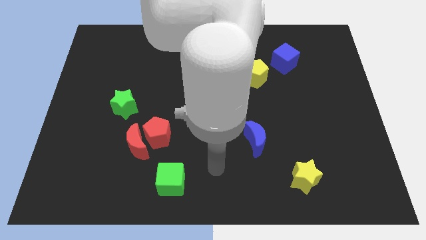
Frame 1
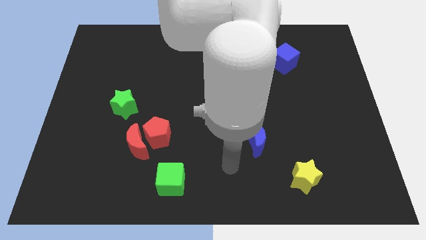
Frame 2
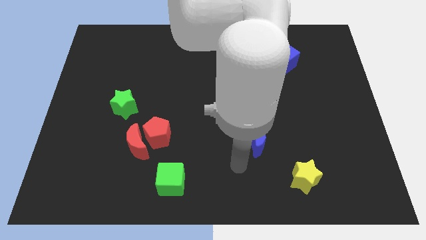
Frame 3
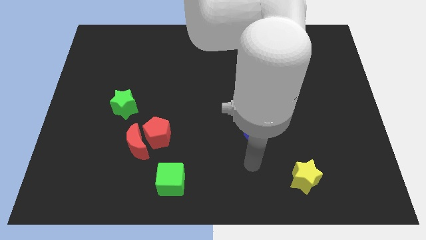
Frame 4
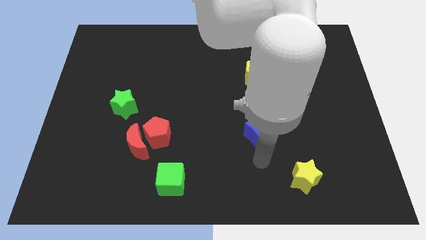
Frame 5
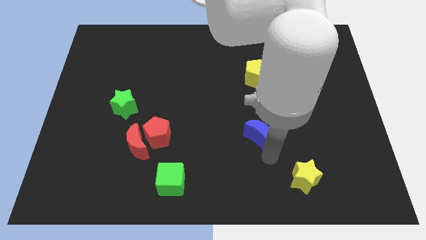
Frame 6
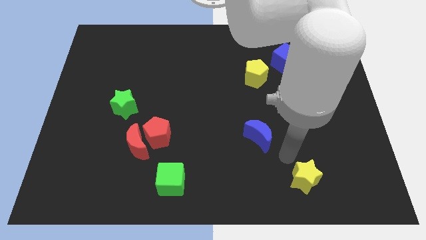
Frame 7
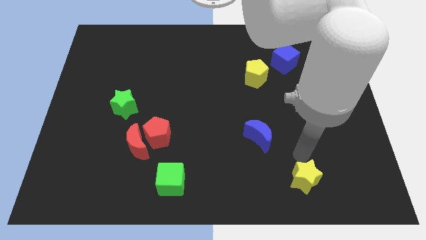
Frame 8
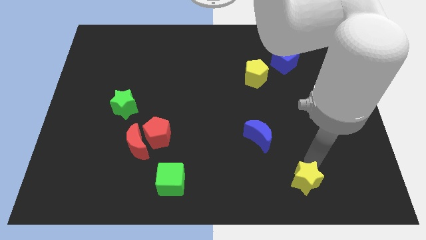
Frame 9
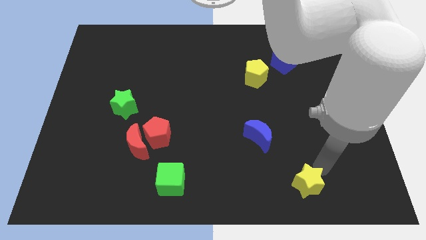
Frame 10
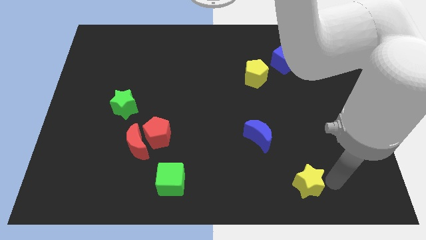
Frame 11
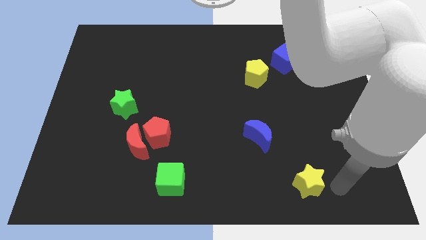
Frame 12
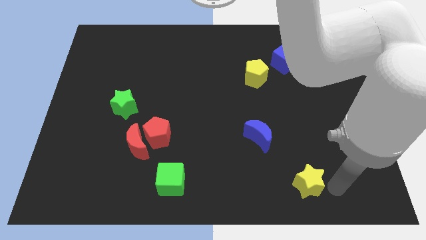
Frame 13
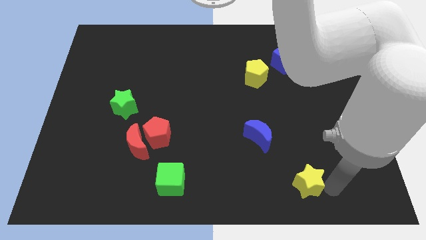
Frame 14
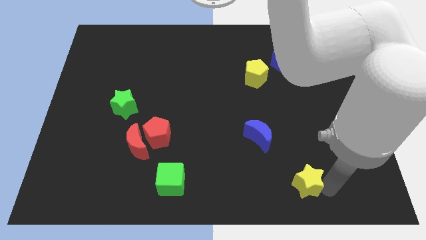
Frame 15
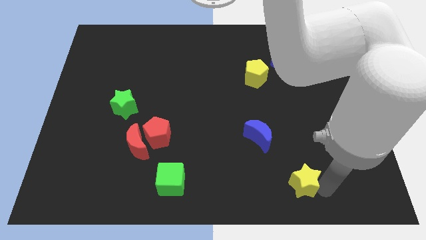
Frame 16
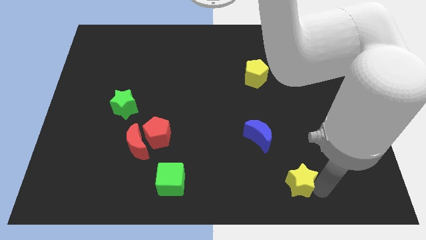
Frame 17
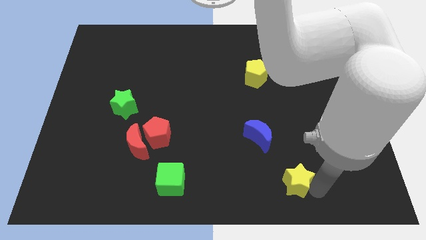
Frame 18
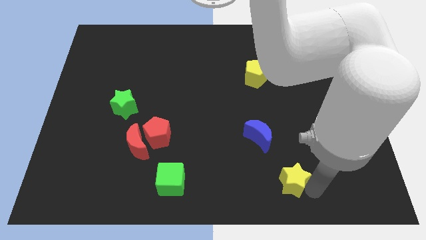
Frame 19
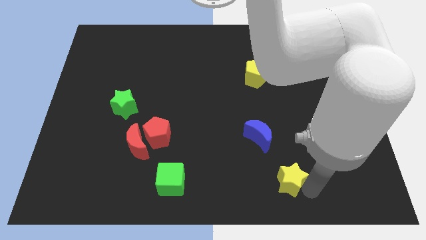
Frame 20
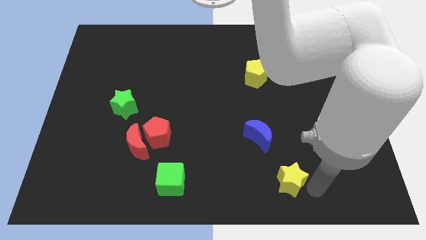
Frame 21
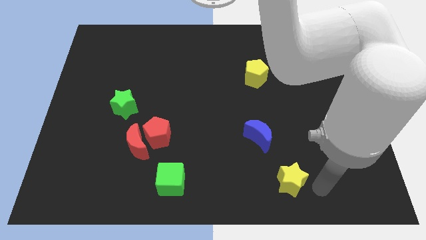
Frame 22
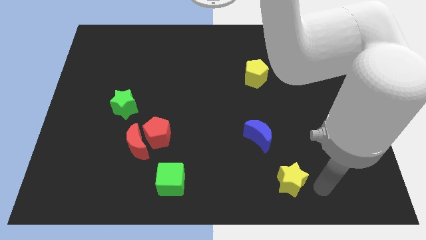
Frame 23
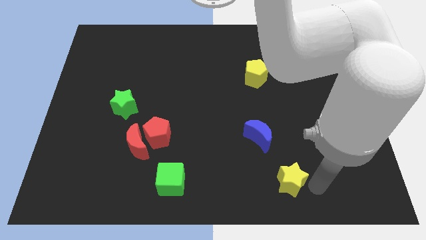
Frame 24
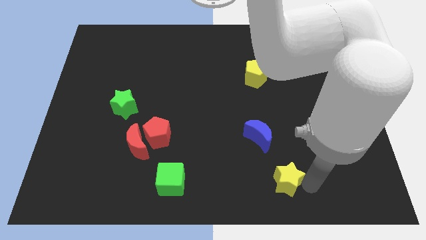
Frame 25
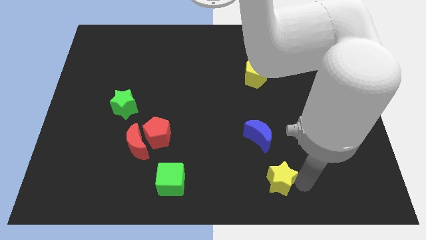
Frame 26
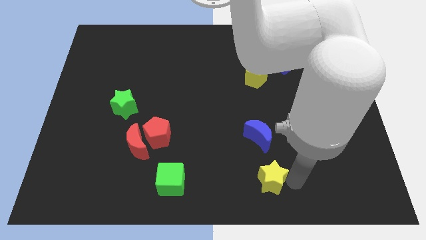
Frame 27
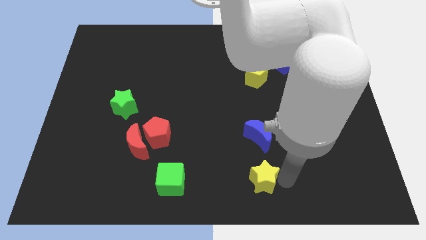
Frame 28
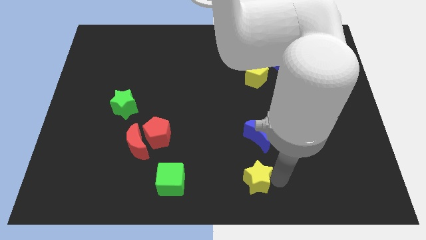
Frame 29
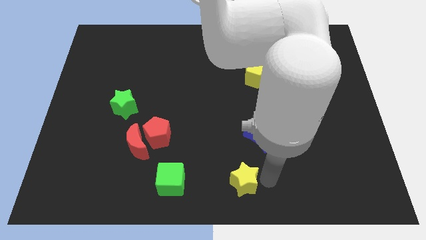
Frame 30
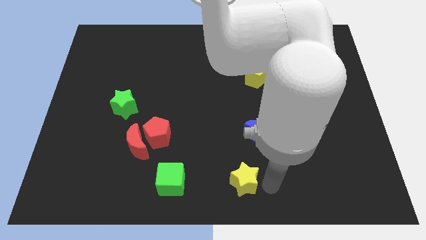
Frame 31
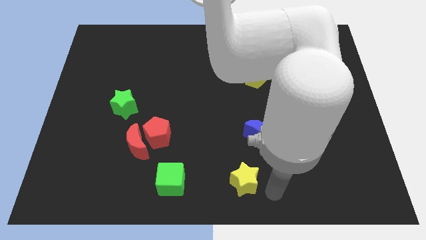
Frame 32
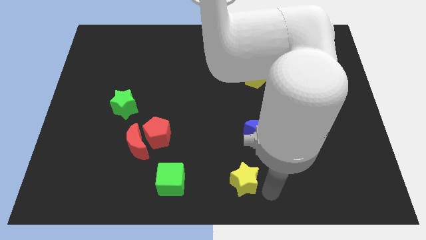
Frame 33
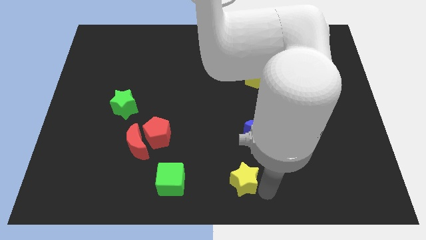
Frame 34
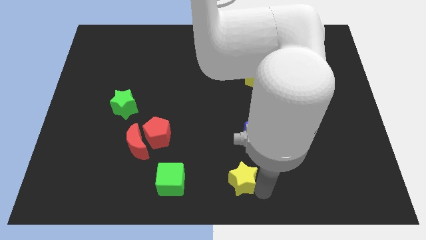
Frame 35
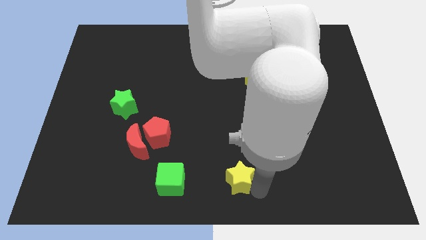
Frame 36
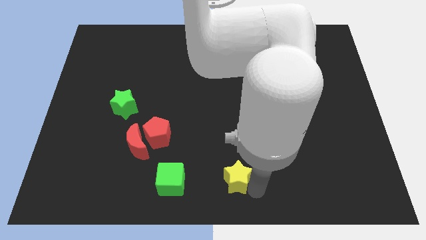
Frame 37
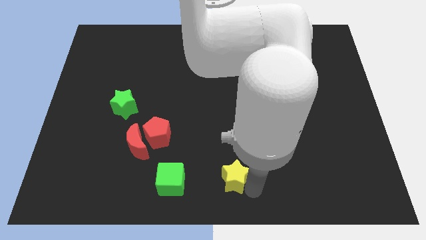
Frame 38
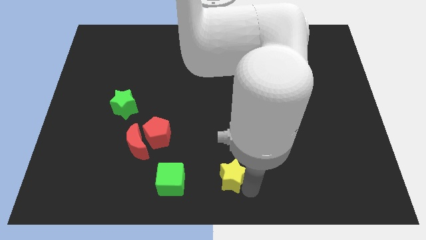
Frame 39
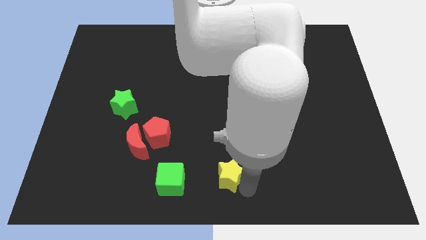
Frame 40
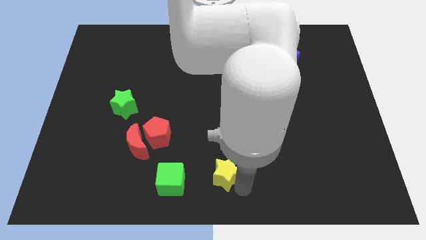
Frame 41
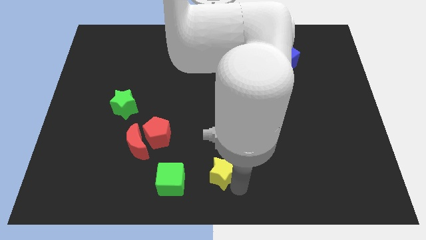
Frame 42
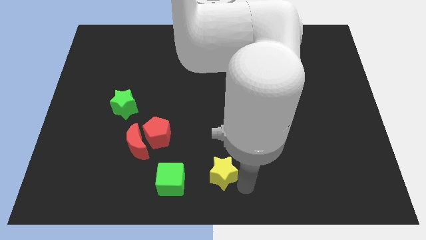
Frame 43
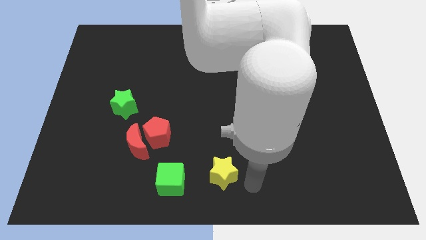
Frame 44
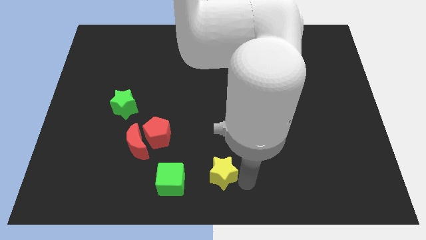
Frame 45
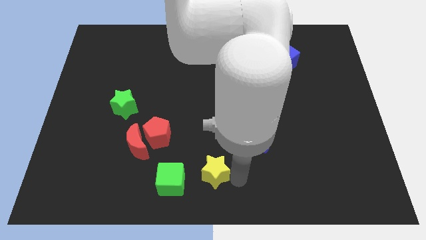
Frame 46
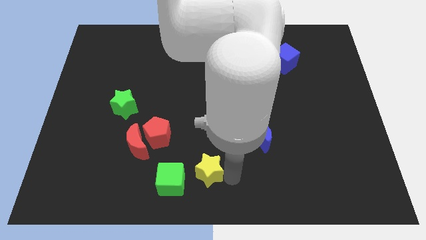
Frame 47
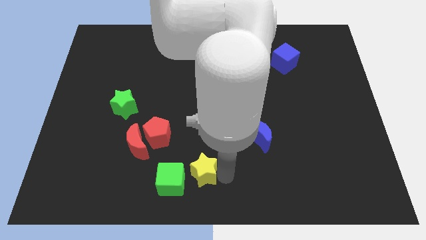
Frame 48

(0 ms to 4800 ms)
move the yellow star to the left

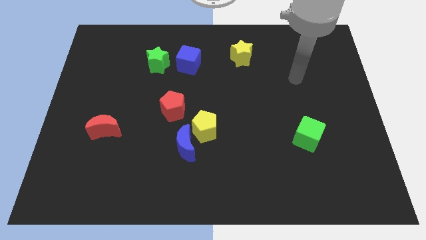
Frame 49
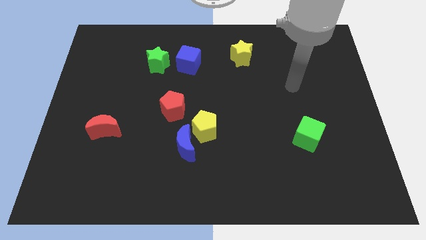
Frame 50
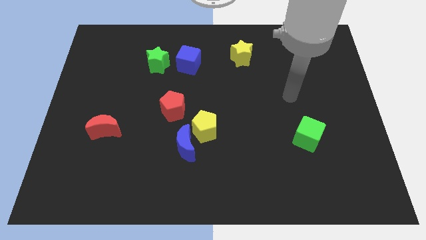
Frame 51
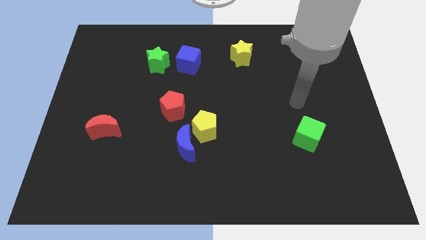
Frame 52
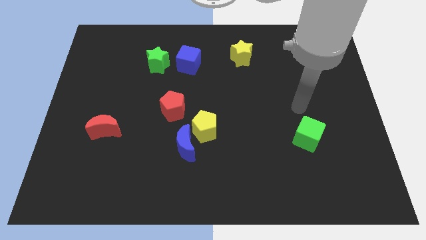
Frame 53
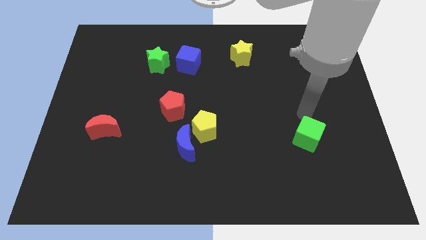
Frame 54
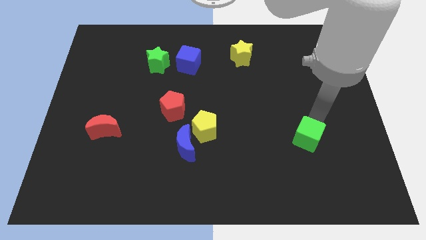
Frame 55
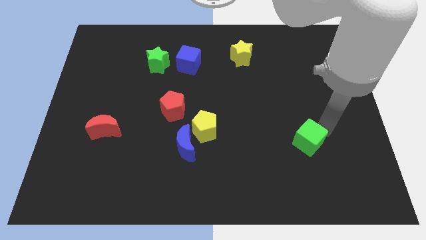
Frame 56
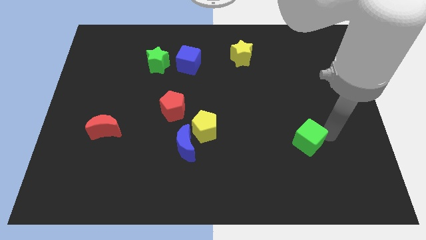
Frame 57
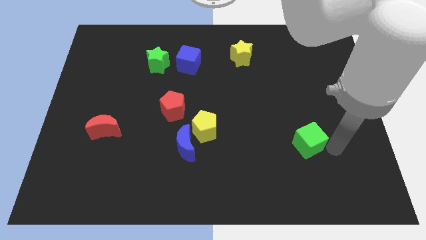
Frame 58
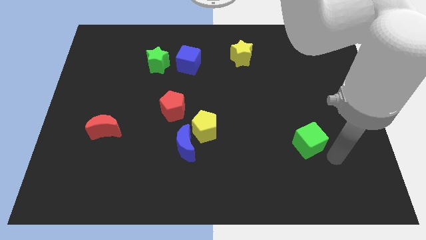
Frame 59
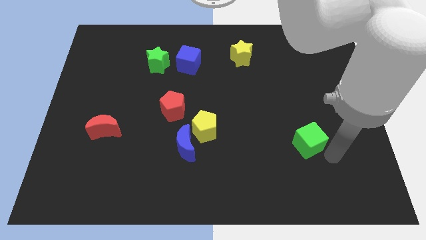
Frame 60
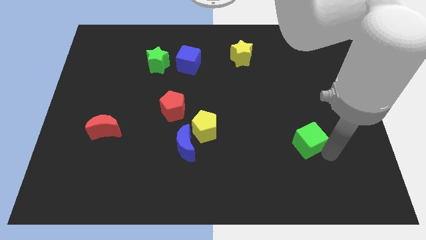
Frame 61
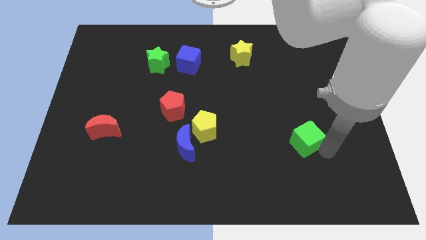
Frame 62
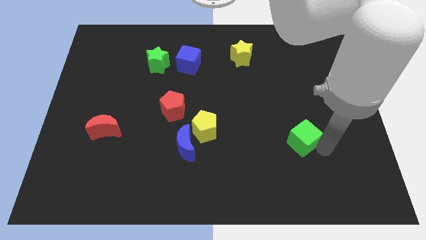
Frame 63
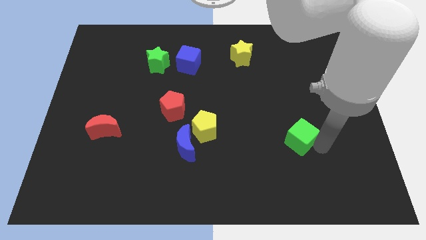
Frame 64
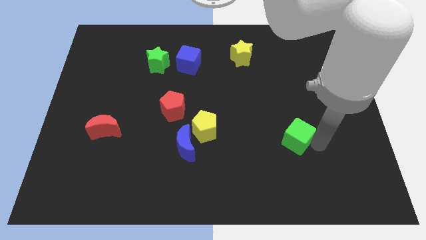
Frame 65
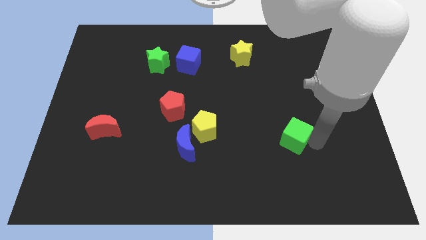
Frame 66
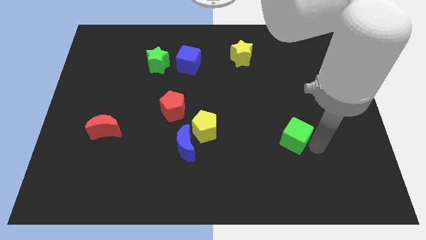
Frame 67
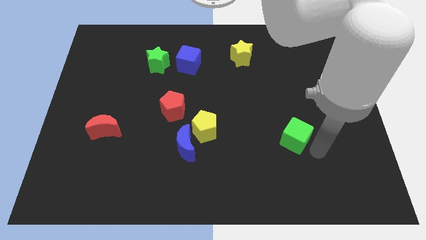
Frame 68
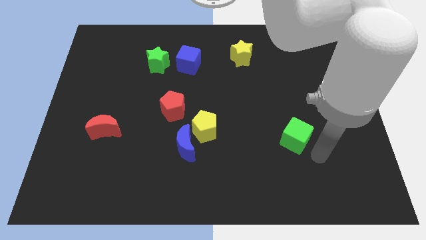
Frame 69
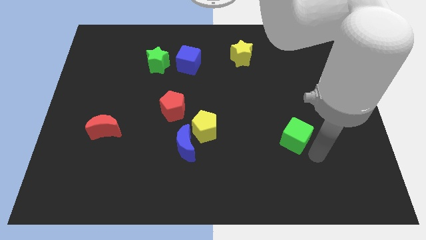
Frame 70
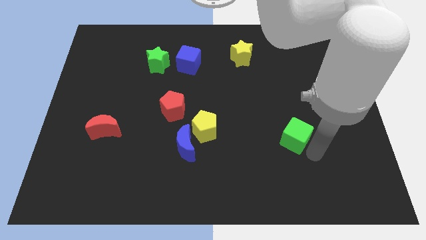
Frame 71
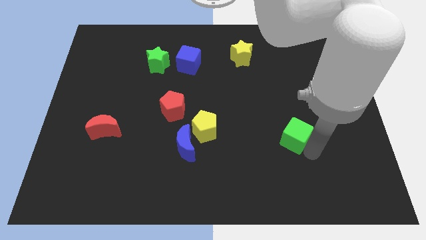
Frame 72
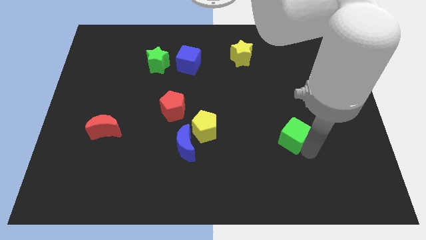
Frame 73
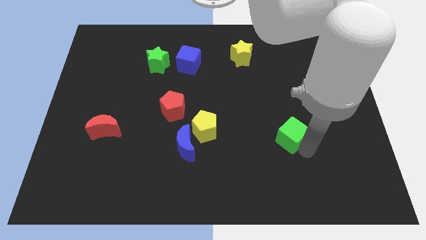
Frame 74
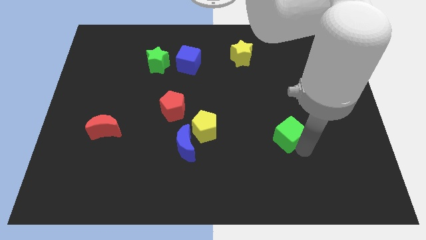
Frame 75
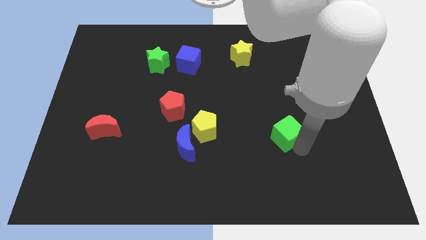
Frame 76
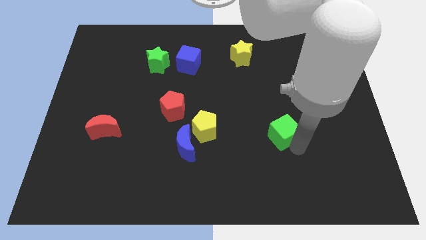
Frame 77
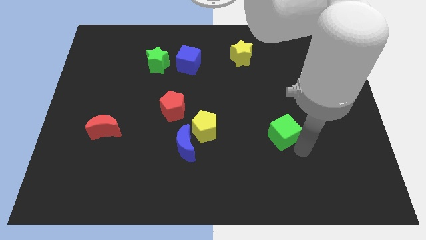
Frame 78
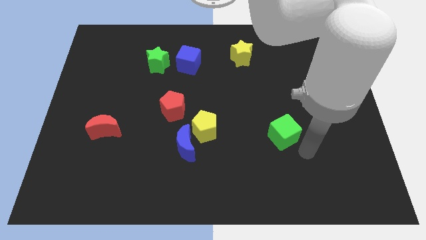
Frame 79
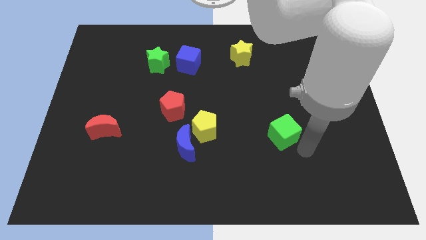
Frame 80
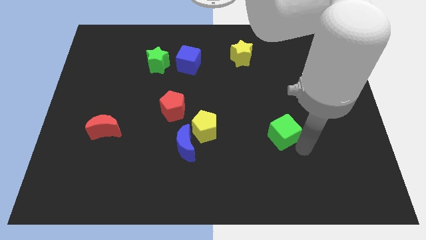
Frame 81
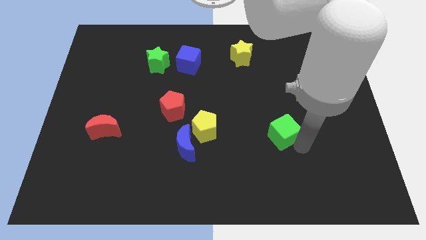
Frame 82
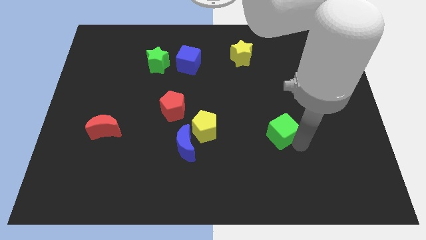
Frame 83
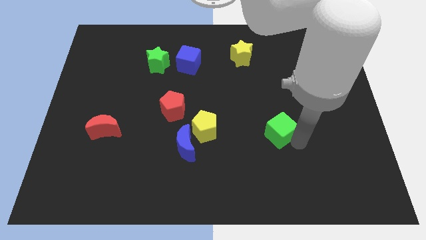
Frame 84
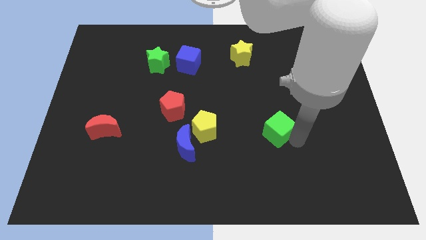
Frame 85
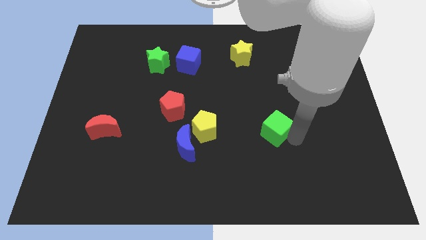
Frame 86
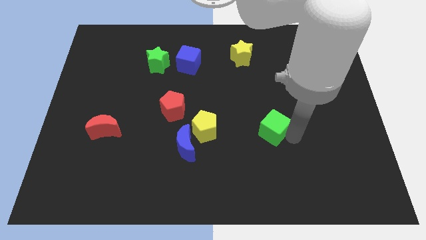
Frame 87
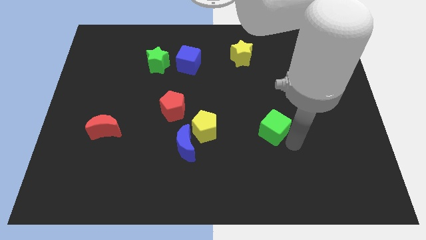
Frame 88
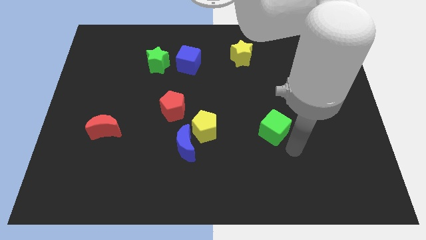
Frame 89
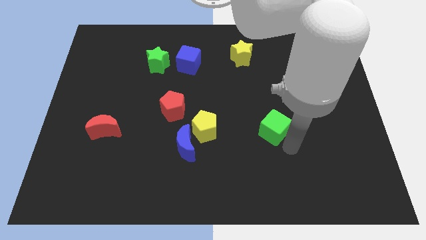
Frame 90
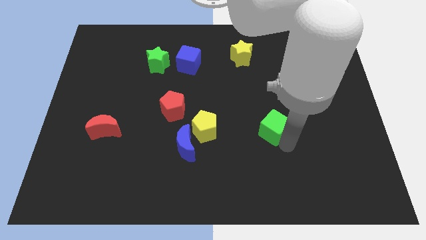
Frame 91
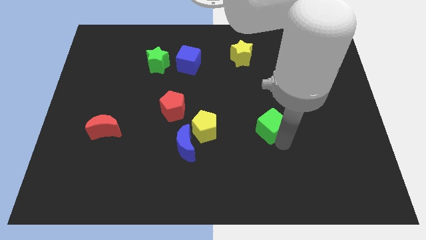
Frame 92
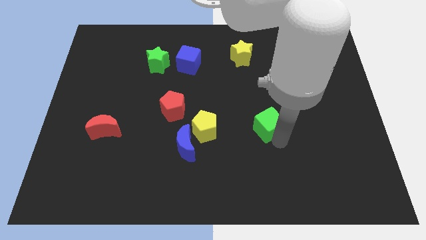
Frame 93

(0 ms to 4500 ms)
push the green cube a bit upwards and to the left
